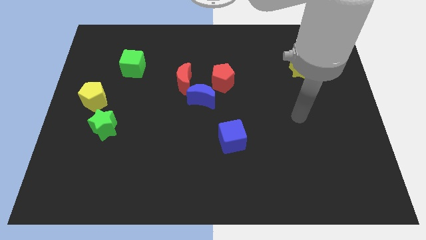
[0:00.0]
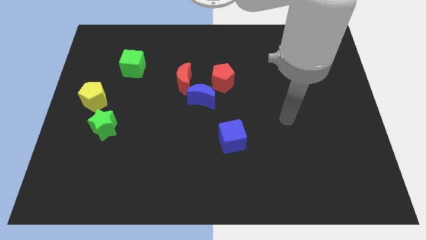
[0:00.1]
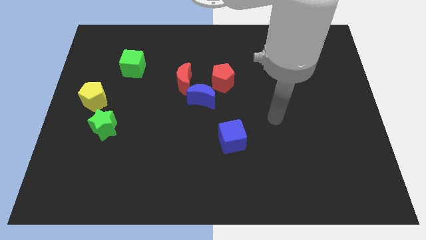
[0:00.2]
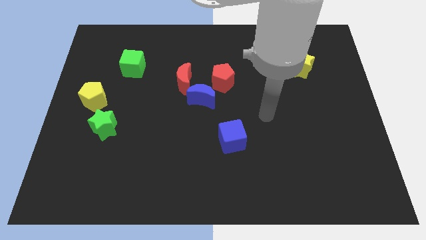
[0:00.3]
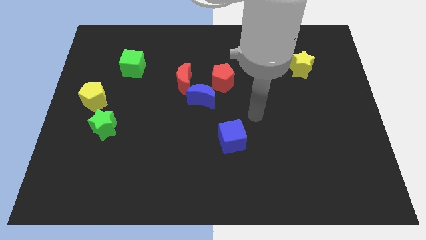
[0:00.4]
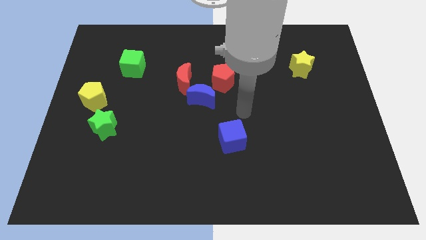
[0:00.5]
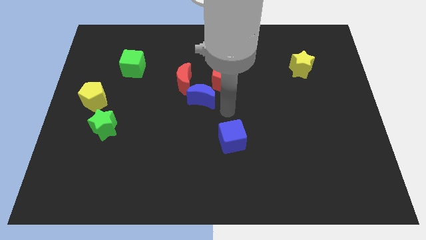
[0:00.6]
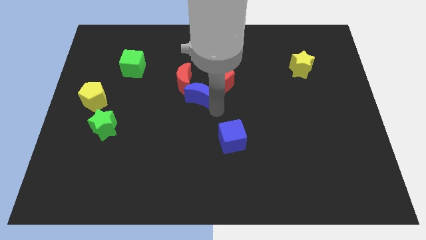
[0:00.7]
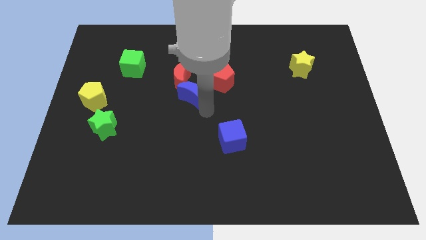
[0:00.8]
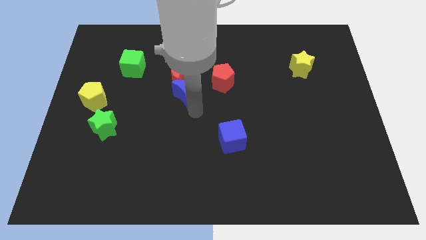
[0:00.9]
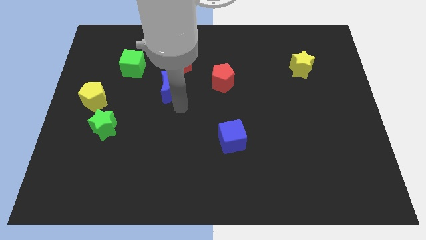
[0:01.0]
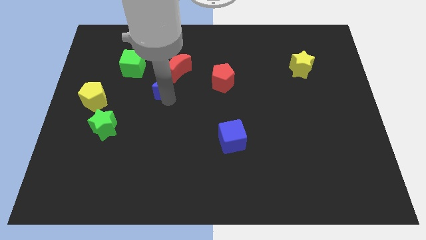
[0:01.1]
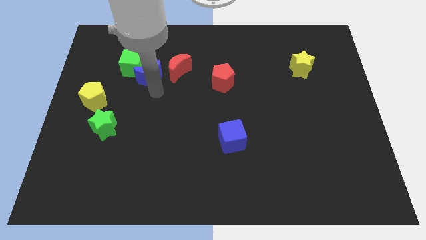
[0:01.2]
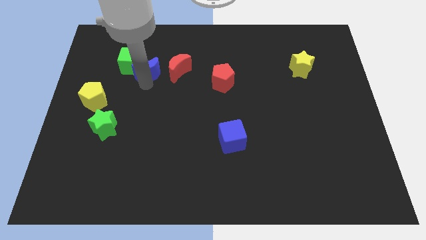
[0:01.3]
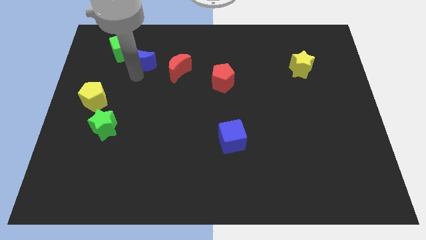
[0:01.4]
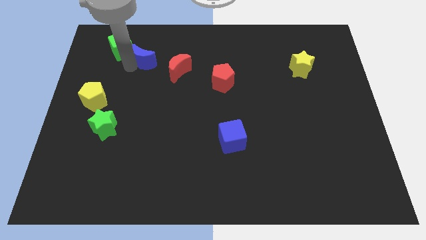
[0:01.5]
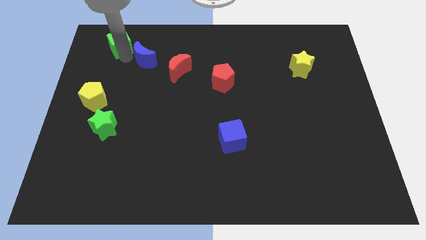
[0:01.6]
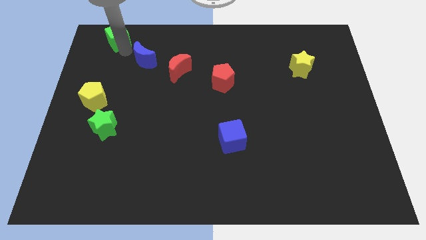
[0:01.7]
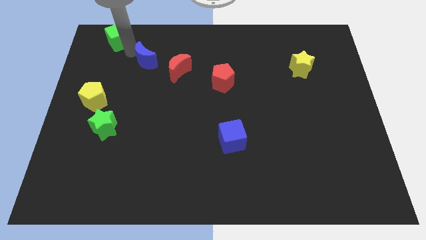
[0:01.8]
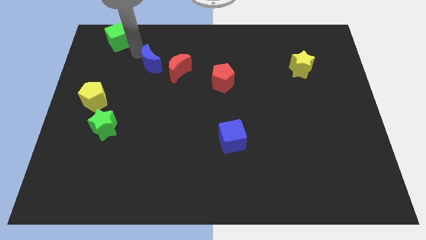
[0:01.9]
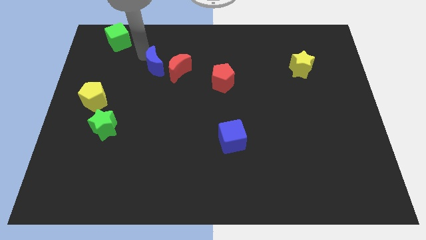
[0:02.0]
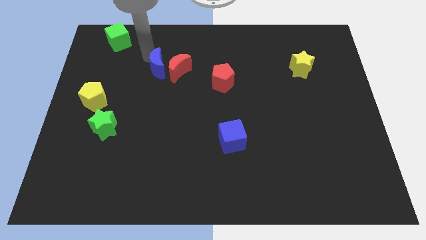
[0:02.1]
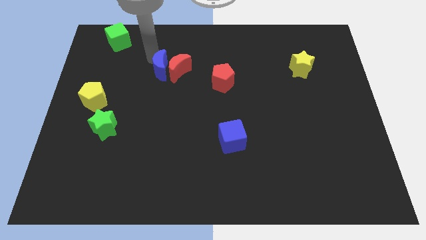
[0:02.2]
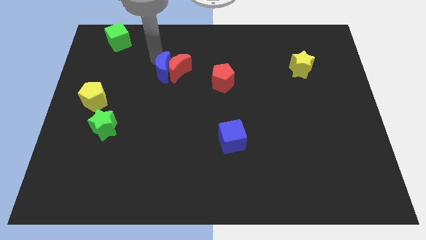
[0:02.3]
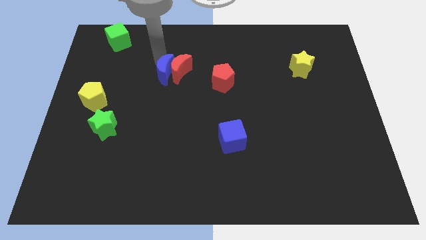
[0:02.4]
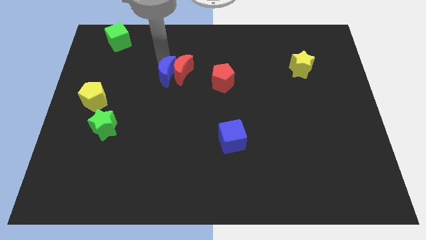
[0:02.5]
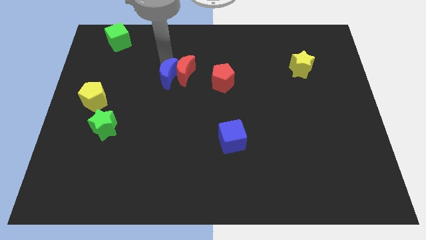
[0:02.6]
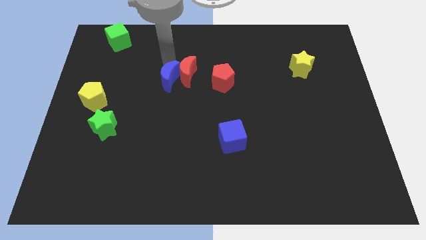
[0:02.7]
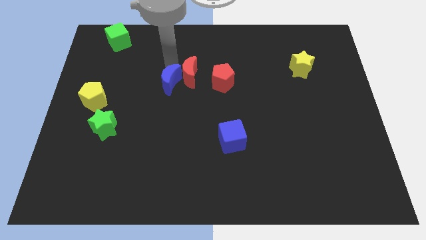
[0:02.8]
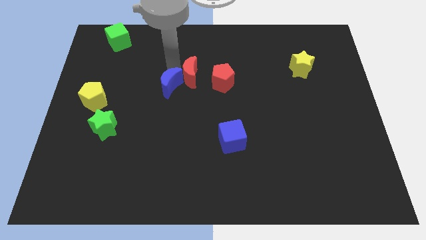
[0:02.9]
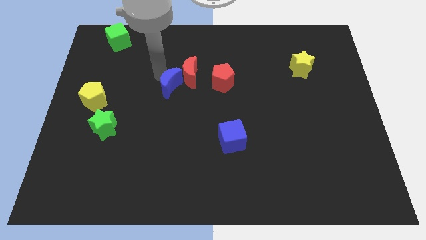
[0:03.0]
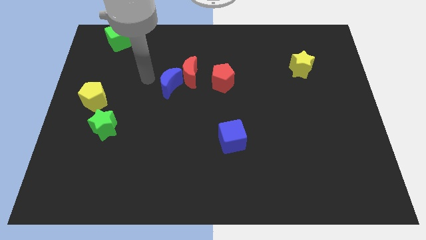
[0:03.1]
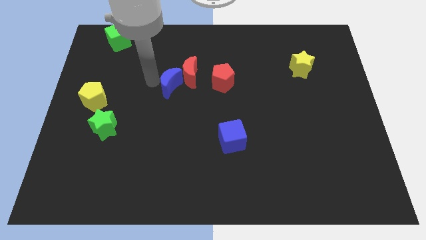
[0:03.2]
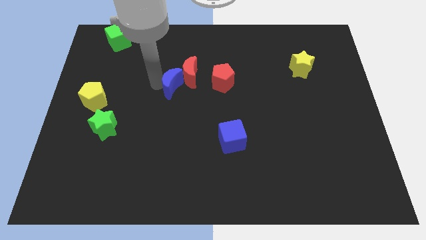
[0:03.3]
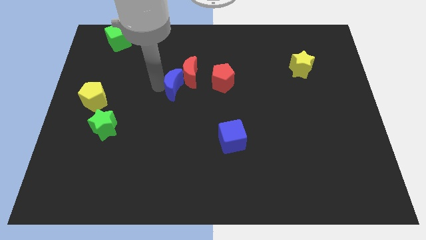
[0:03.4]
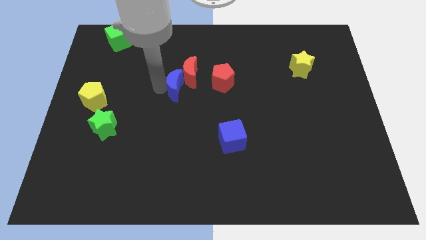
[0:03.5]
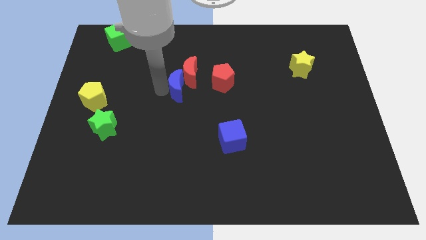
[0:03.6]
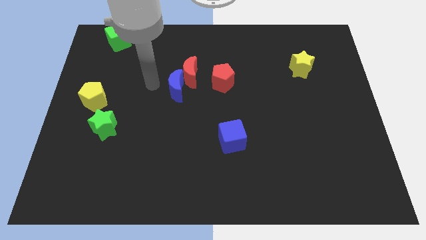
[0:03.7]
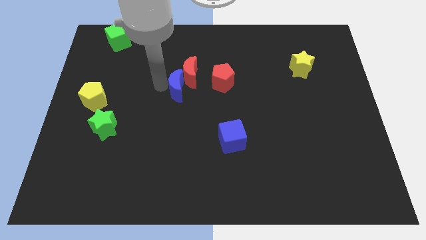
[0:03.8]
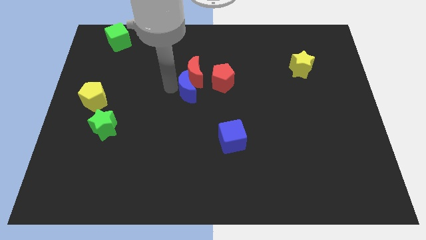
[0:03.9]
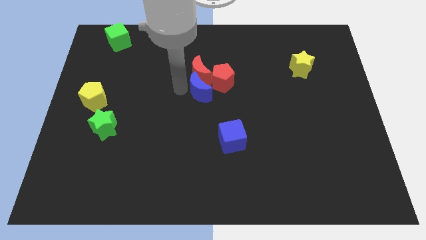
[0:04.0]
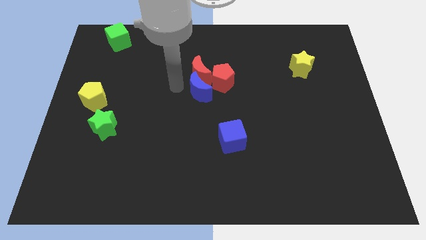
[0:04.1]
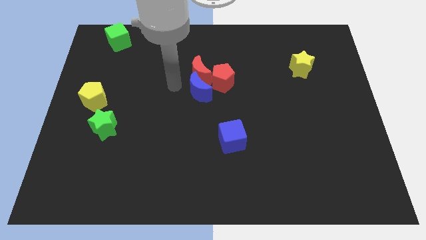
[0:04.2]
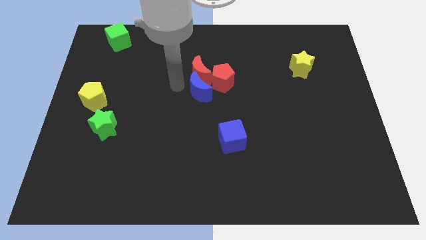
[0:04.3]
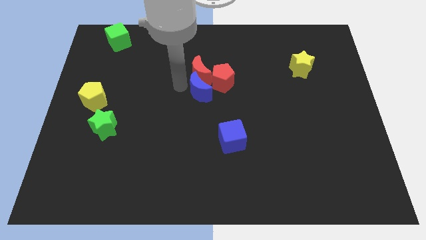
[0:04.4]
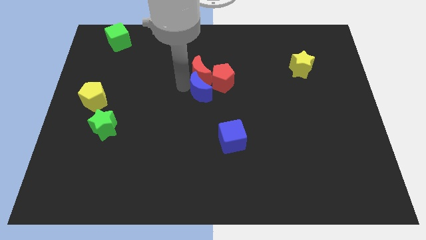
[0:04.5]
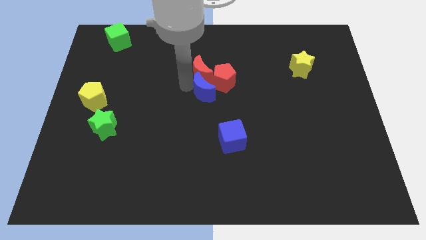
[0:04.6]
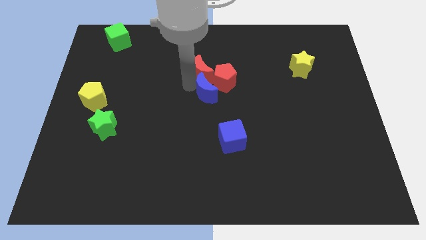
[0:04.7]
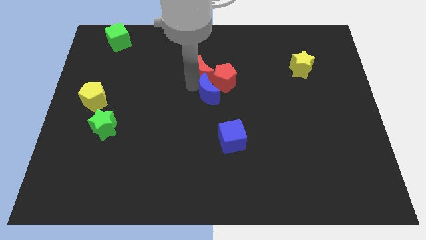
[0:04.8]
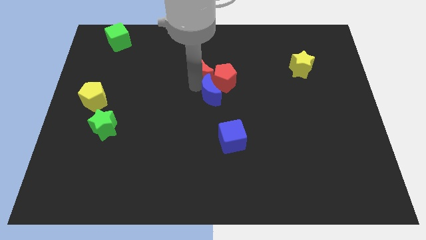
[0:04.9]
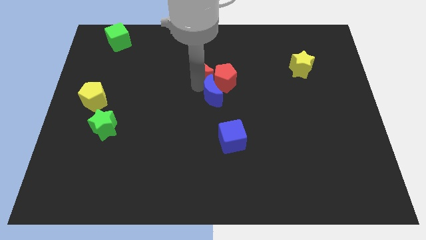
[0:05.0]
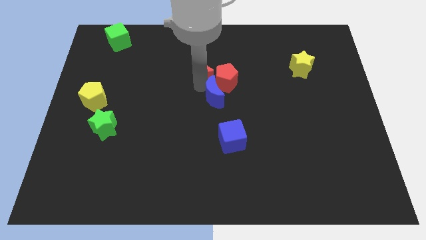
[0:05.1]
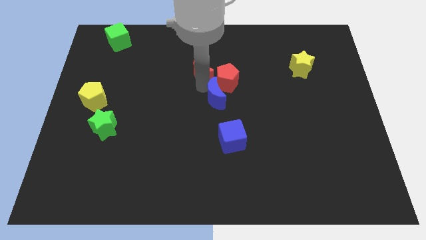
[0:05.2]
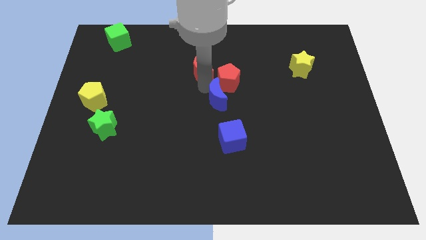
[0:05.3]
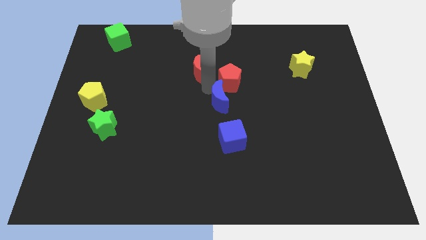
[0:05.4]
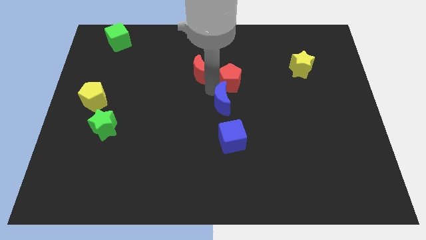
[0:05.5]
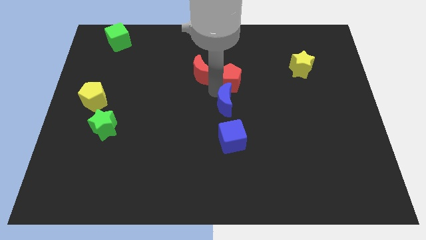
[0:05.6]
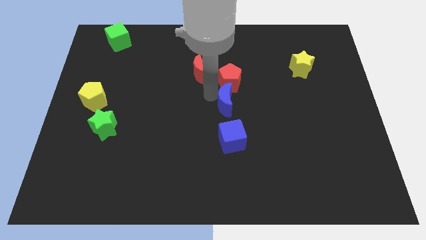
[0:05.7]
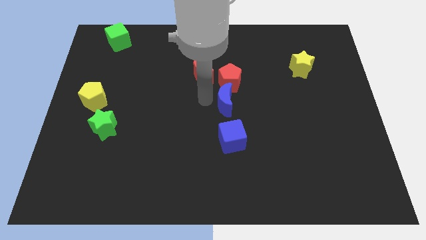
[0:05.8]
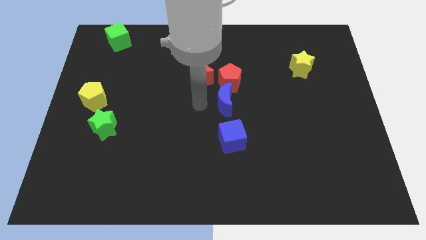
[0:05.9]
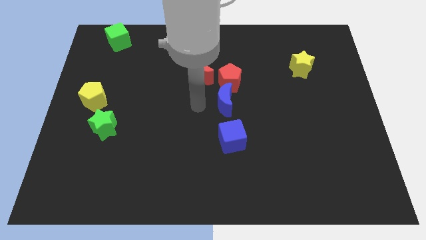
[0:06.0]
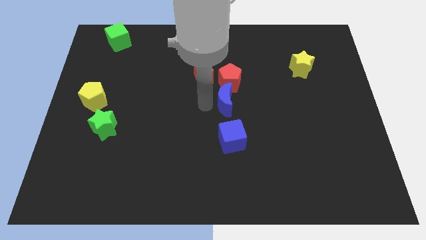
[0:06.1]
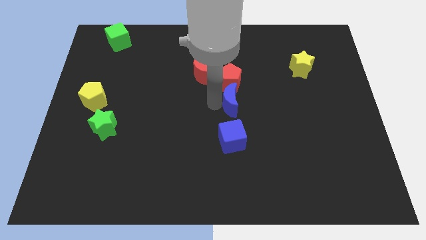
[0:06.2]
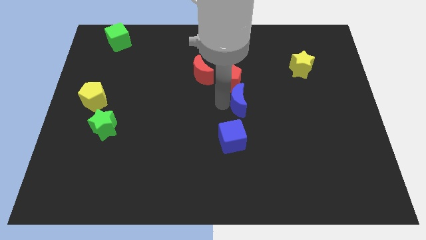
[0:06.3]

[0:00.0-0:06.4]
slightly slide the blue moon to the right

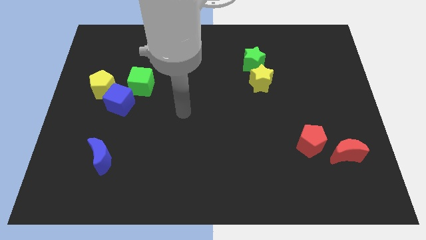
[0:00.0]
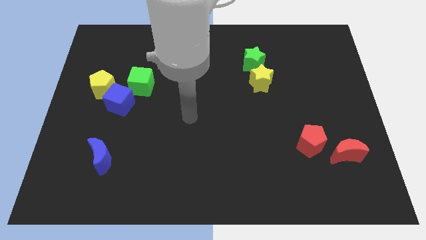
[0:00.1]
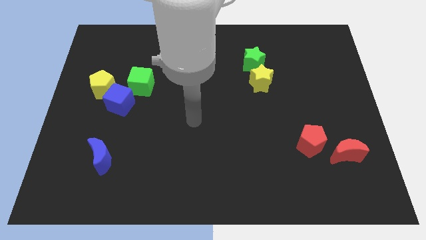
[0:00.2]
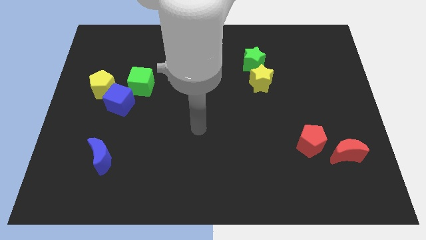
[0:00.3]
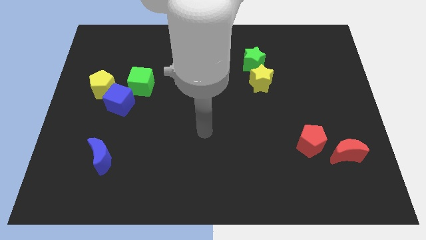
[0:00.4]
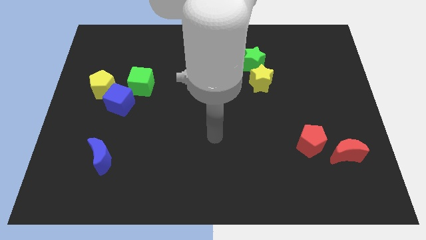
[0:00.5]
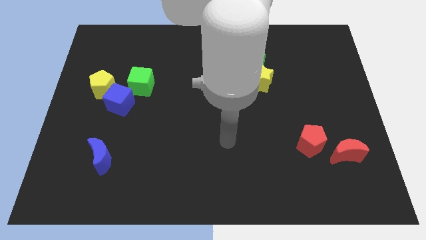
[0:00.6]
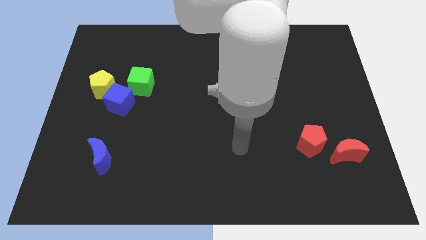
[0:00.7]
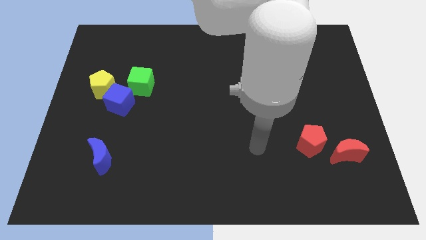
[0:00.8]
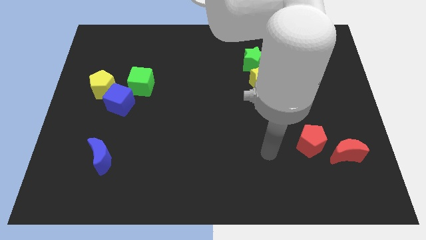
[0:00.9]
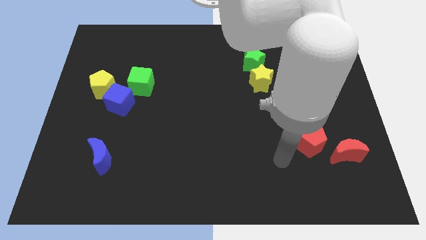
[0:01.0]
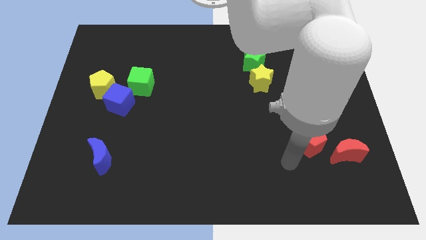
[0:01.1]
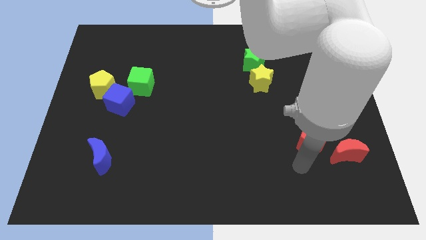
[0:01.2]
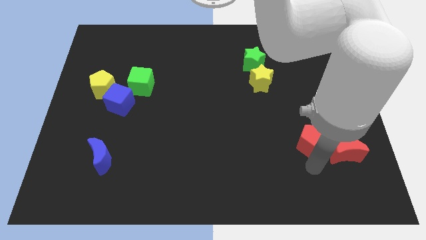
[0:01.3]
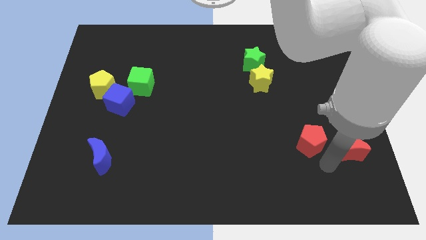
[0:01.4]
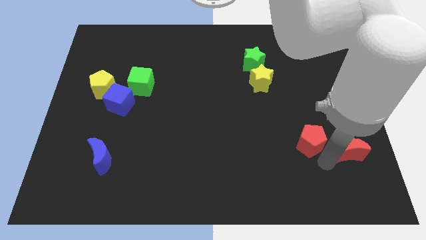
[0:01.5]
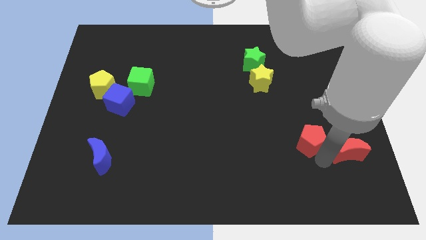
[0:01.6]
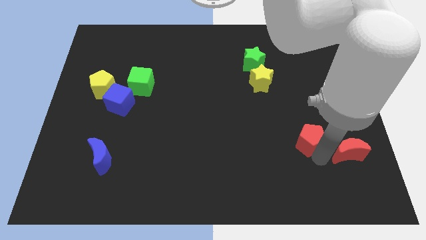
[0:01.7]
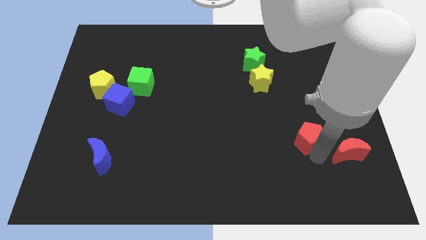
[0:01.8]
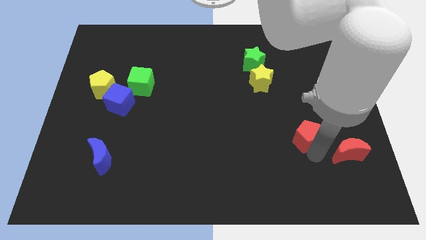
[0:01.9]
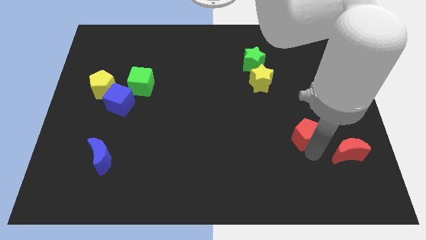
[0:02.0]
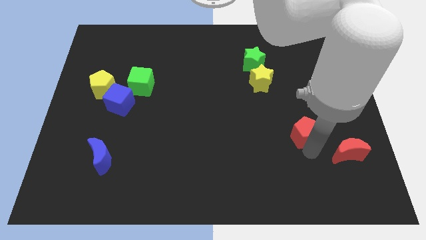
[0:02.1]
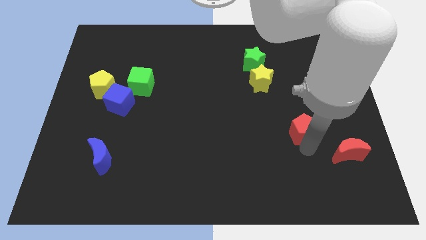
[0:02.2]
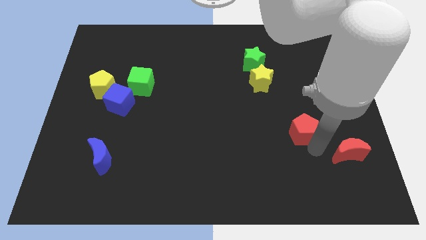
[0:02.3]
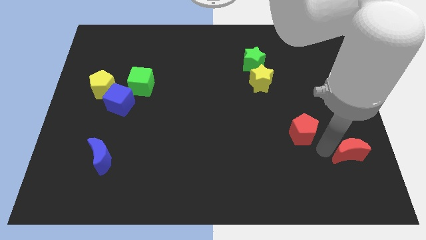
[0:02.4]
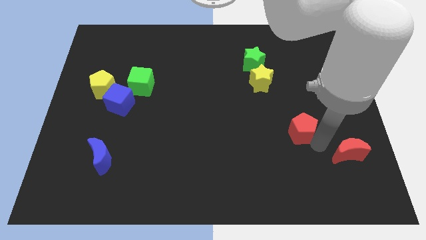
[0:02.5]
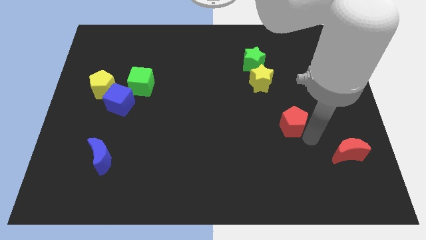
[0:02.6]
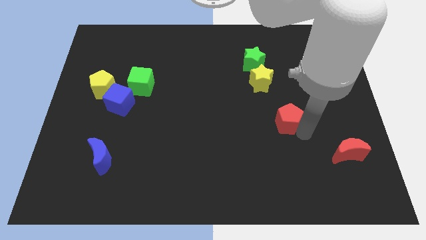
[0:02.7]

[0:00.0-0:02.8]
move the red pentagon a little bit up and to the left diagonally
